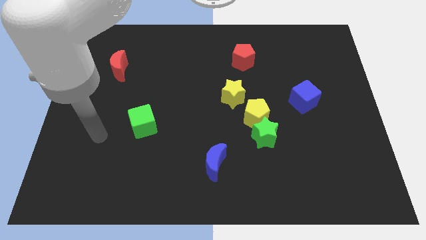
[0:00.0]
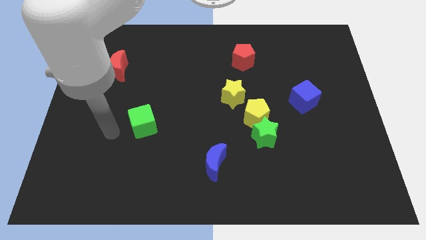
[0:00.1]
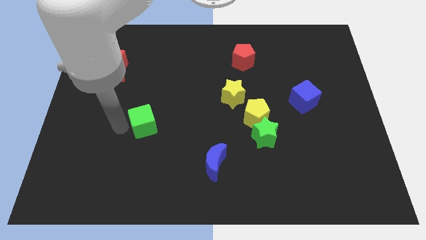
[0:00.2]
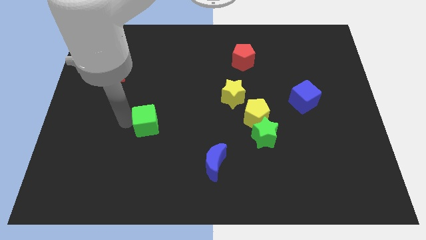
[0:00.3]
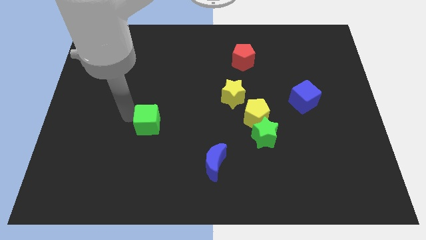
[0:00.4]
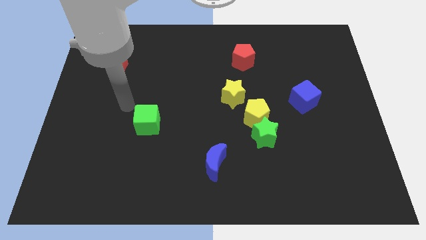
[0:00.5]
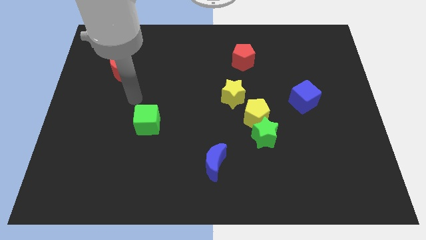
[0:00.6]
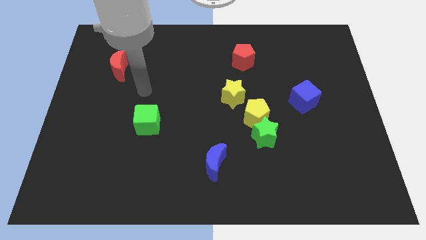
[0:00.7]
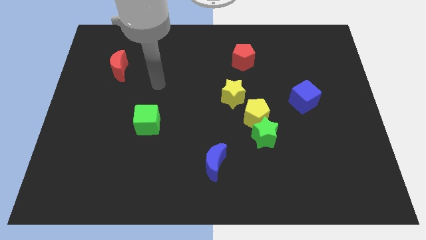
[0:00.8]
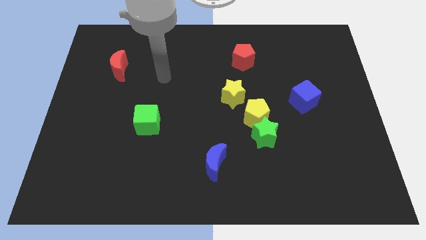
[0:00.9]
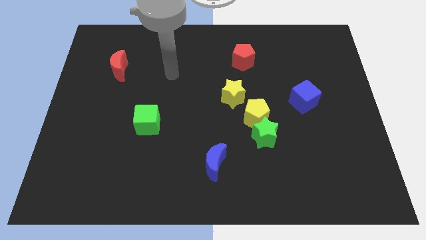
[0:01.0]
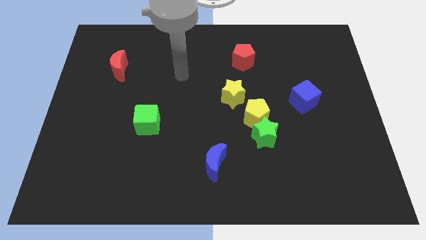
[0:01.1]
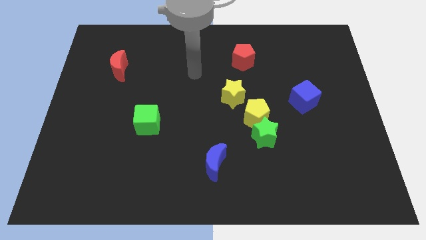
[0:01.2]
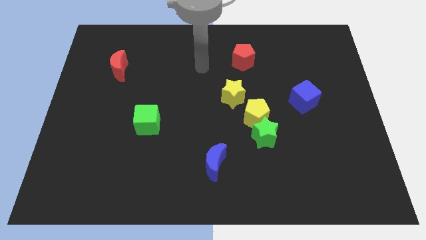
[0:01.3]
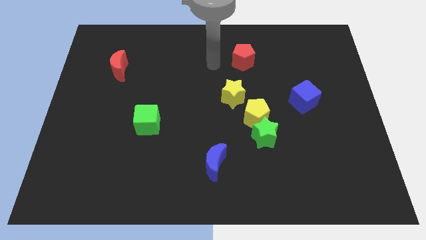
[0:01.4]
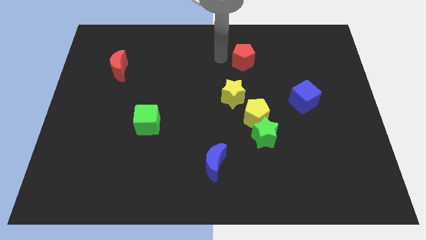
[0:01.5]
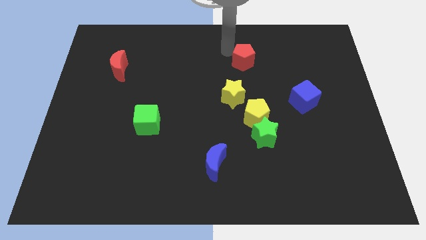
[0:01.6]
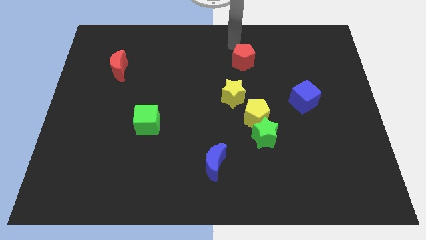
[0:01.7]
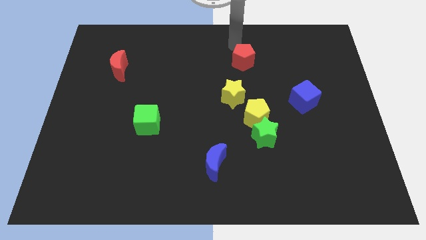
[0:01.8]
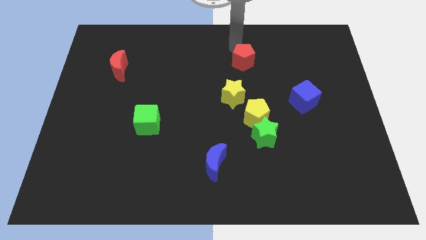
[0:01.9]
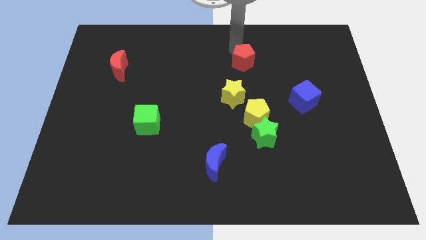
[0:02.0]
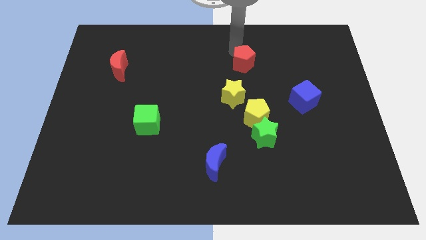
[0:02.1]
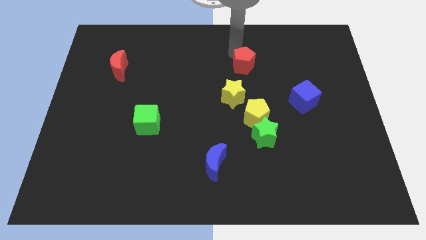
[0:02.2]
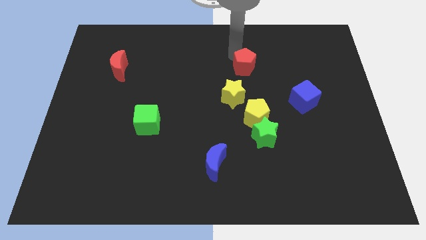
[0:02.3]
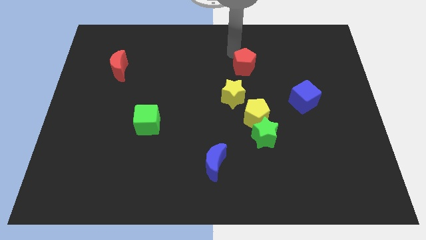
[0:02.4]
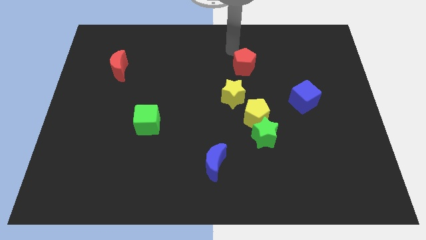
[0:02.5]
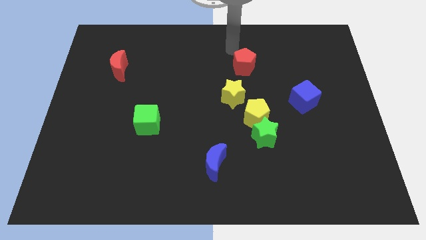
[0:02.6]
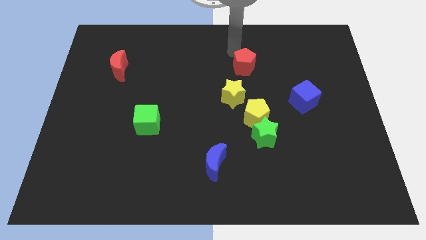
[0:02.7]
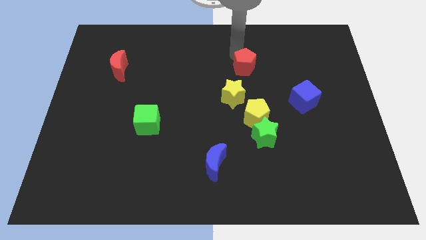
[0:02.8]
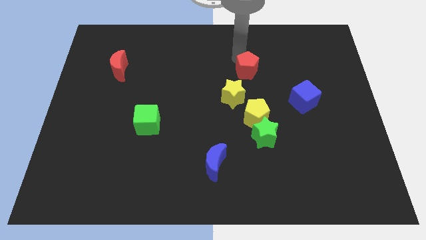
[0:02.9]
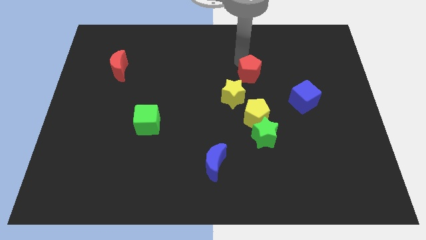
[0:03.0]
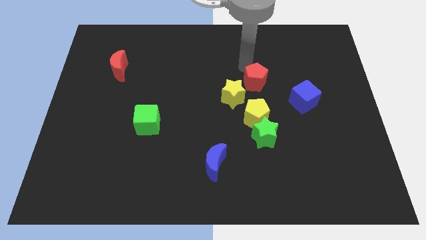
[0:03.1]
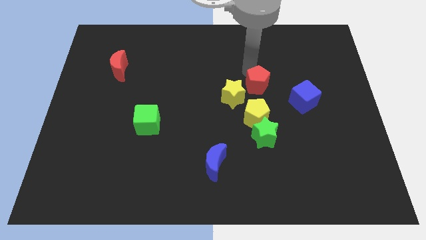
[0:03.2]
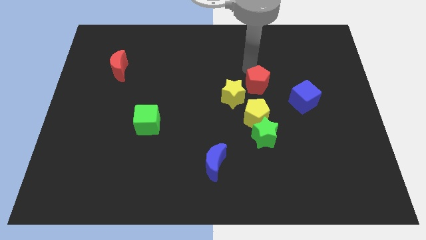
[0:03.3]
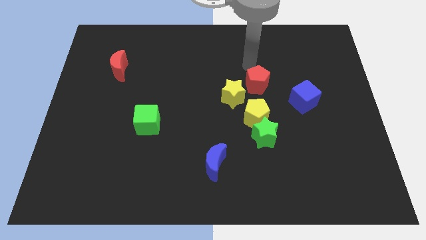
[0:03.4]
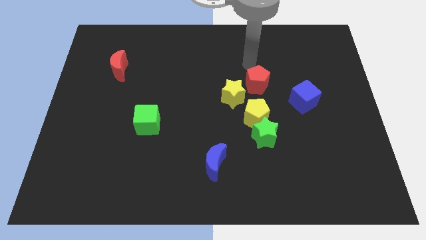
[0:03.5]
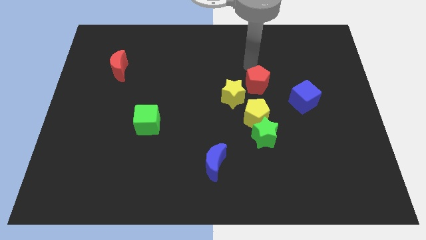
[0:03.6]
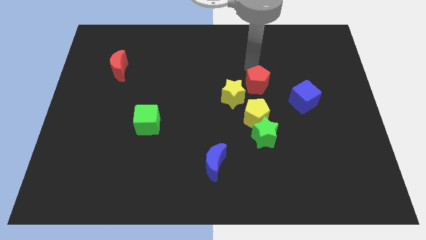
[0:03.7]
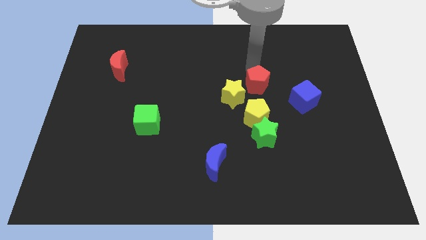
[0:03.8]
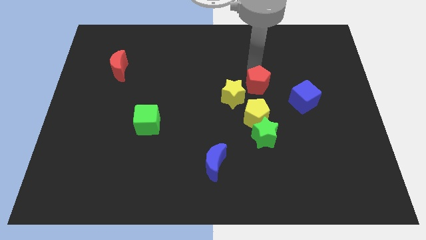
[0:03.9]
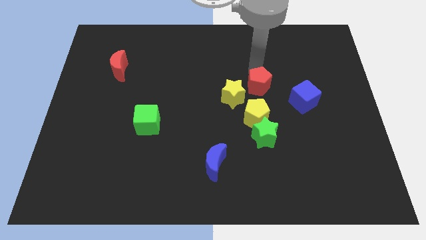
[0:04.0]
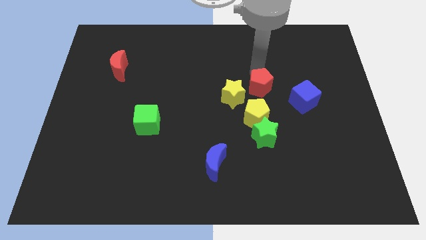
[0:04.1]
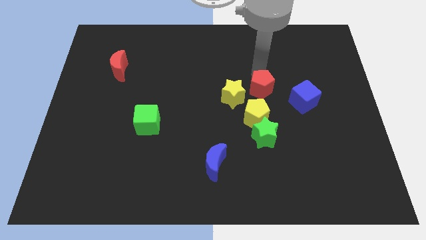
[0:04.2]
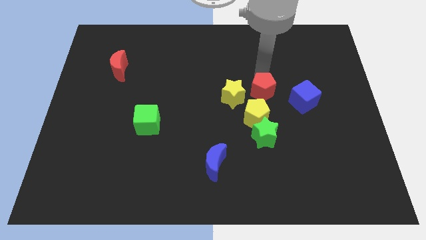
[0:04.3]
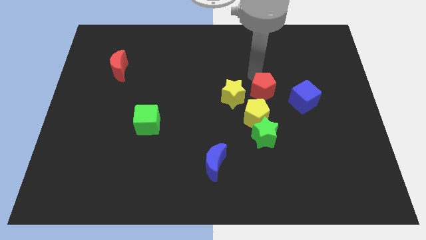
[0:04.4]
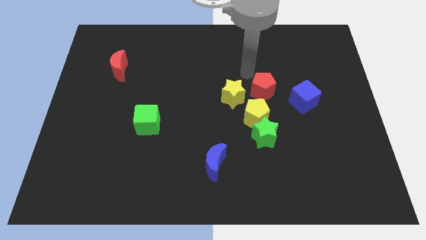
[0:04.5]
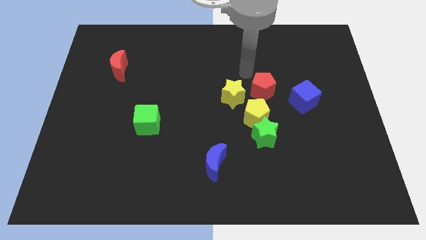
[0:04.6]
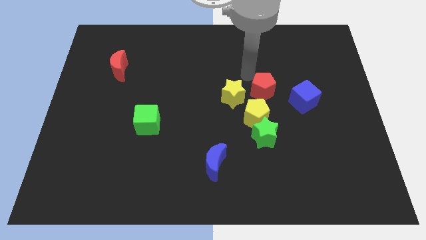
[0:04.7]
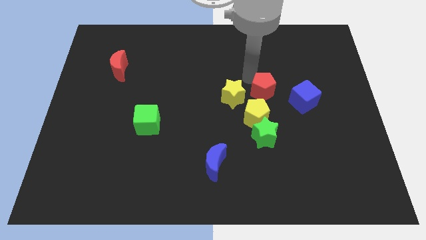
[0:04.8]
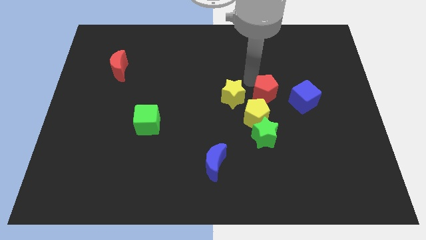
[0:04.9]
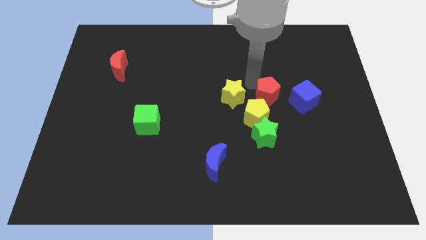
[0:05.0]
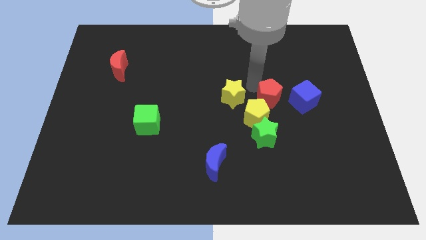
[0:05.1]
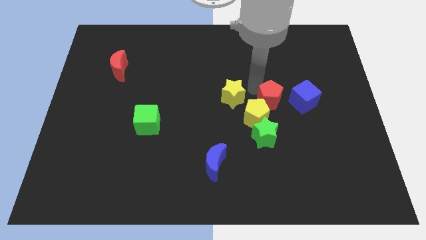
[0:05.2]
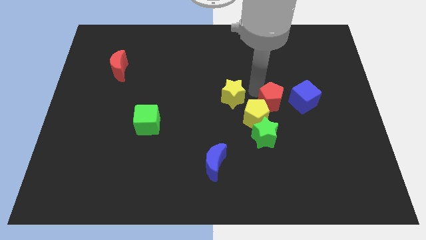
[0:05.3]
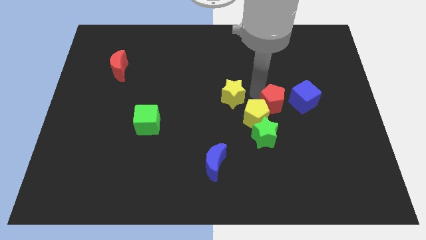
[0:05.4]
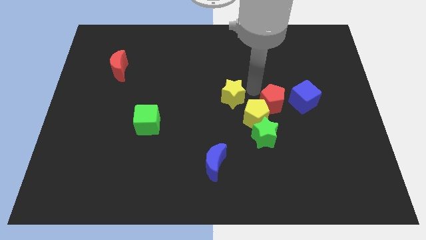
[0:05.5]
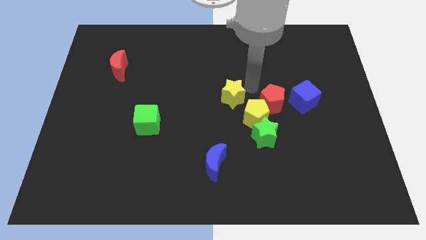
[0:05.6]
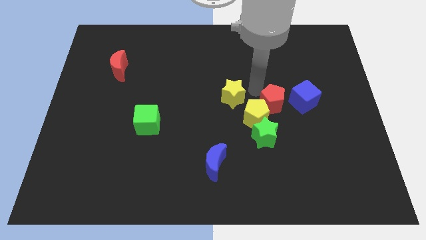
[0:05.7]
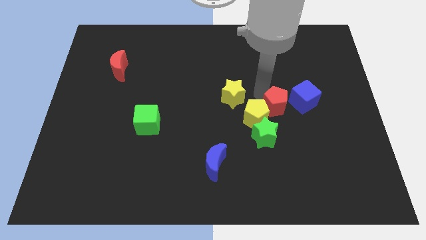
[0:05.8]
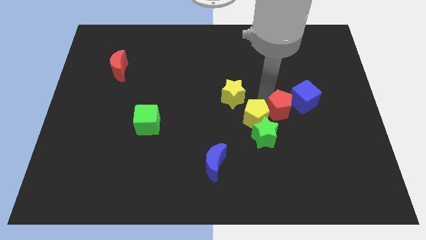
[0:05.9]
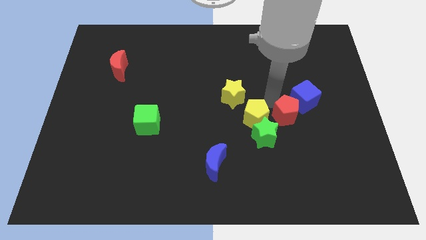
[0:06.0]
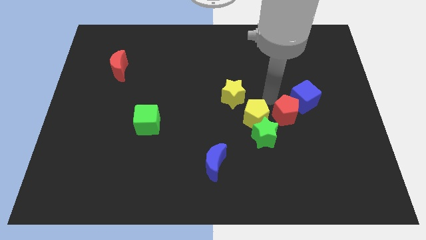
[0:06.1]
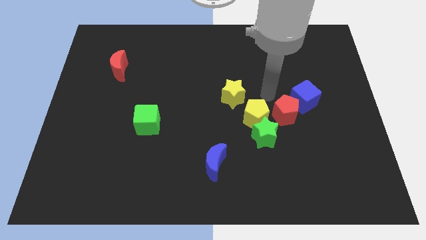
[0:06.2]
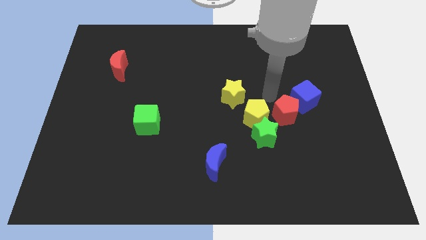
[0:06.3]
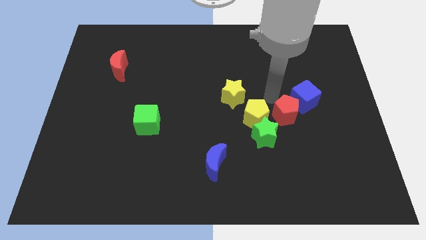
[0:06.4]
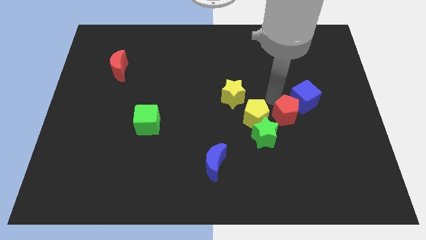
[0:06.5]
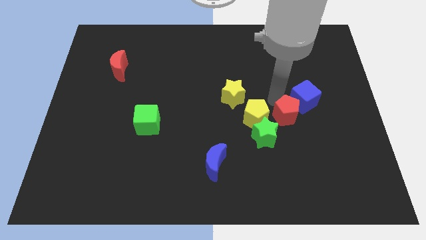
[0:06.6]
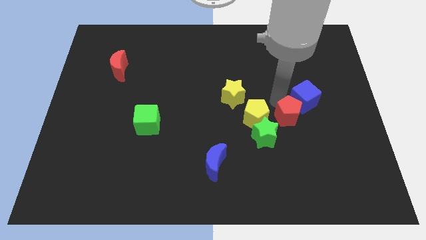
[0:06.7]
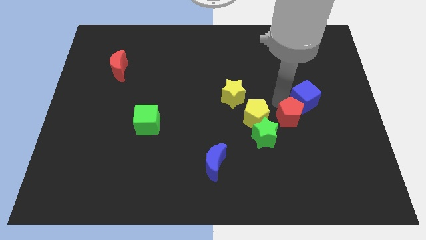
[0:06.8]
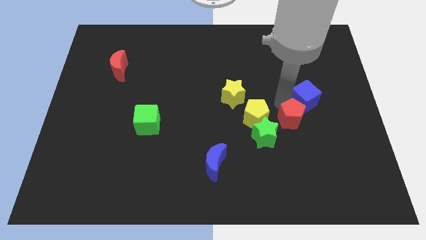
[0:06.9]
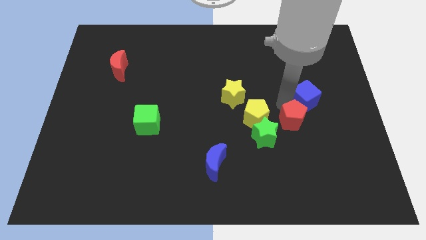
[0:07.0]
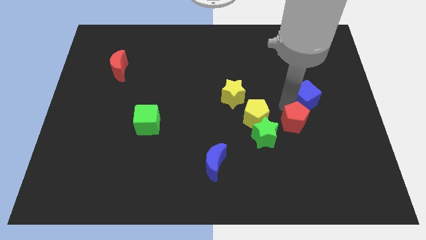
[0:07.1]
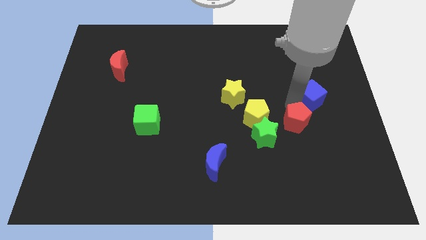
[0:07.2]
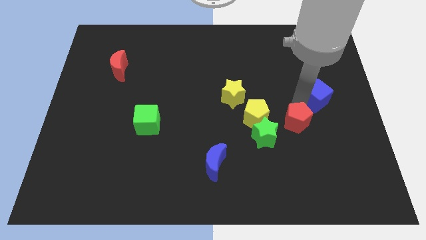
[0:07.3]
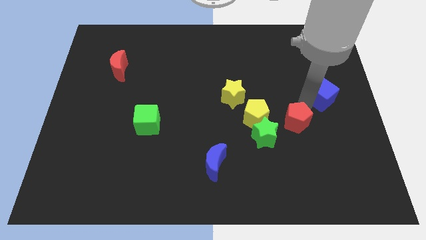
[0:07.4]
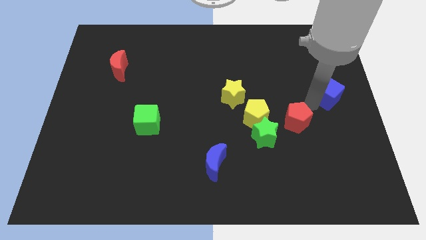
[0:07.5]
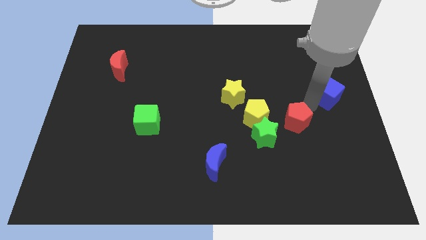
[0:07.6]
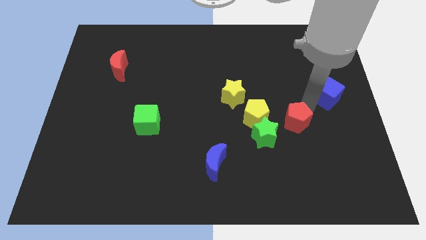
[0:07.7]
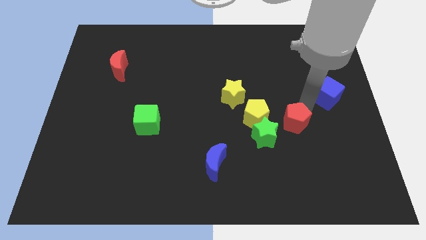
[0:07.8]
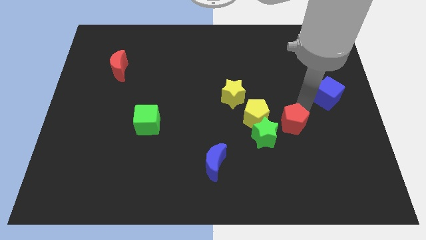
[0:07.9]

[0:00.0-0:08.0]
move the red pentagon diagonally down and to the right of the yellow pentagon

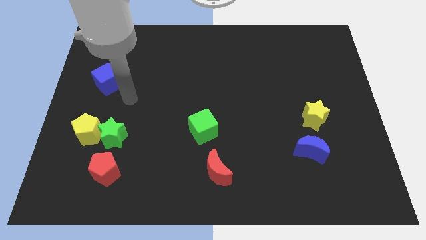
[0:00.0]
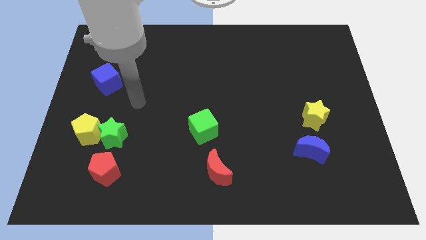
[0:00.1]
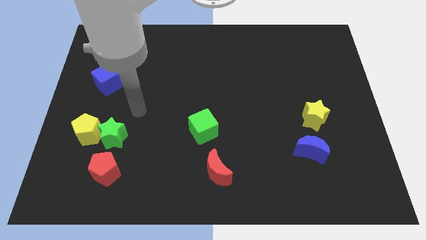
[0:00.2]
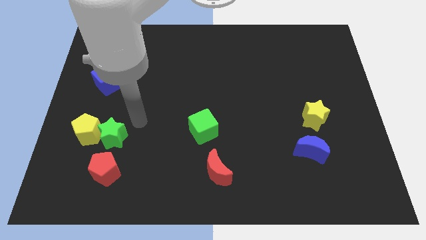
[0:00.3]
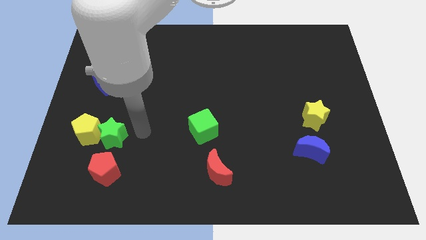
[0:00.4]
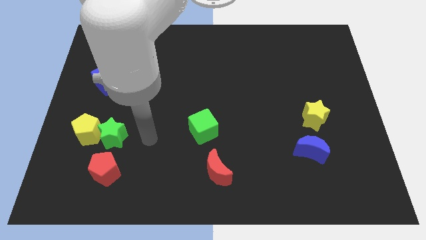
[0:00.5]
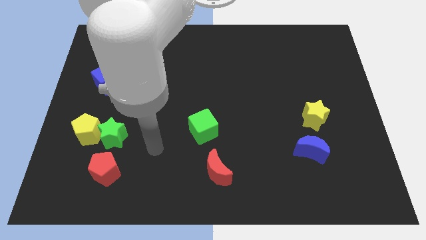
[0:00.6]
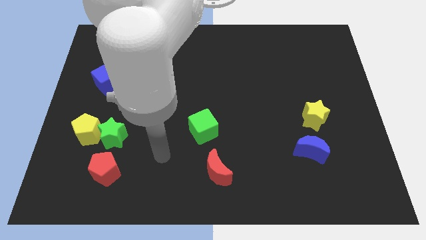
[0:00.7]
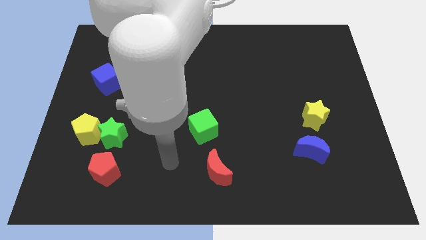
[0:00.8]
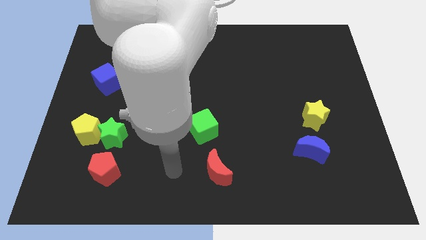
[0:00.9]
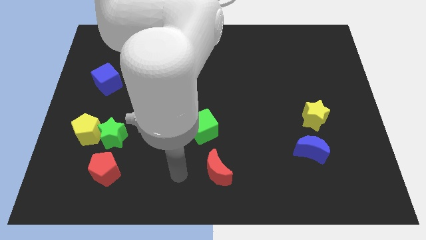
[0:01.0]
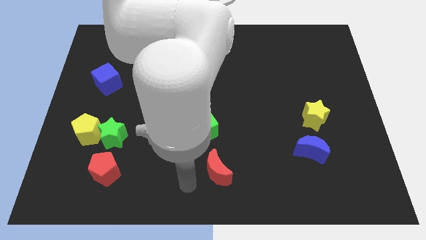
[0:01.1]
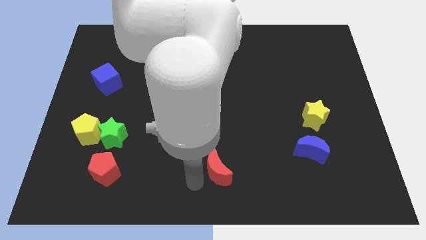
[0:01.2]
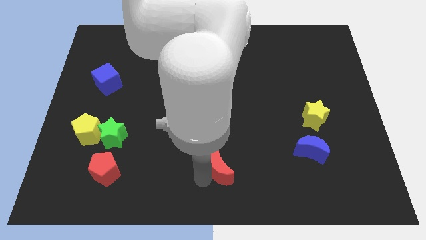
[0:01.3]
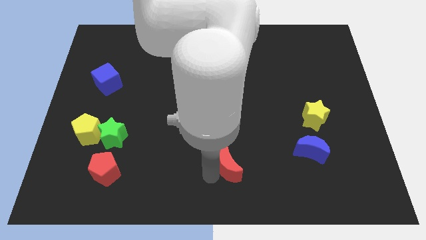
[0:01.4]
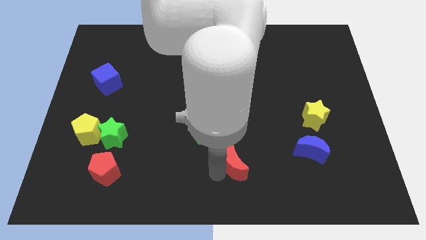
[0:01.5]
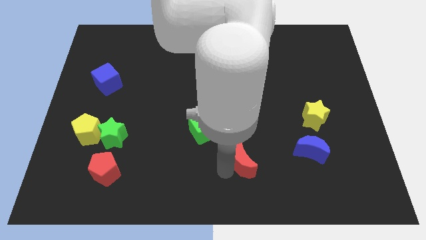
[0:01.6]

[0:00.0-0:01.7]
slide the red moon just left of the blue moon
